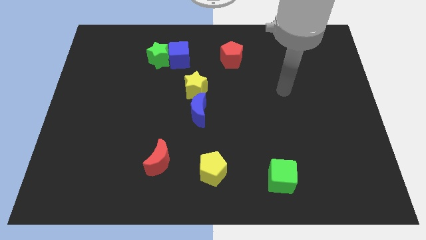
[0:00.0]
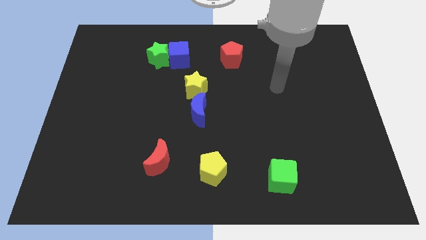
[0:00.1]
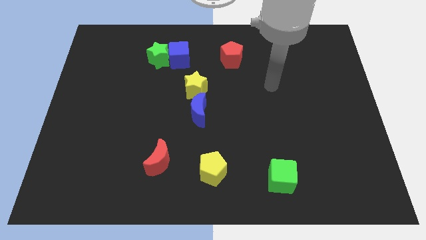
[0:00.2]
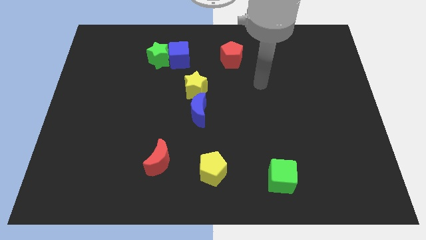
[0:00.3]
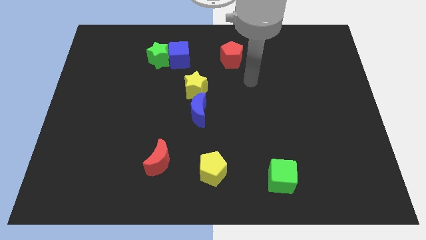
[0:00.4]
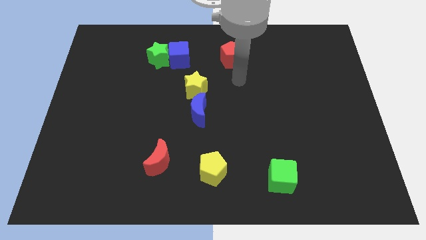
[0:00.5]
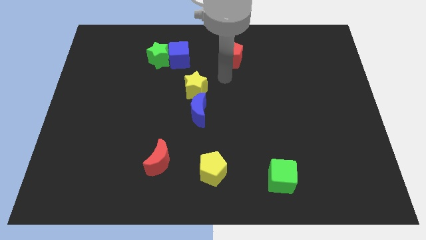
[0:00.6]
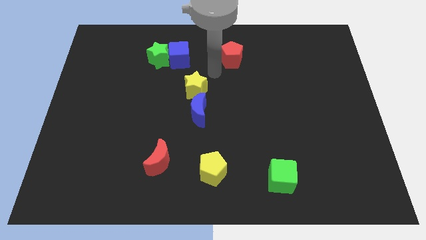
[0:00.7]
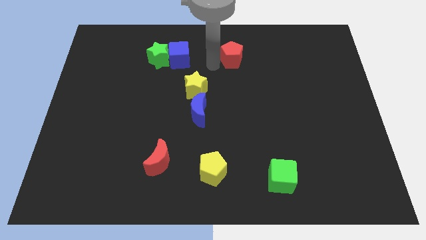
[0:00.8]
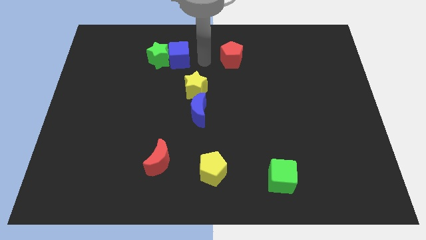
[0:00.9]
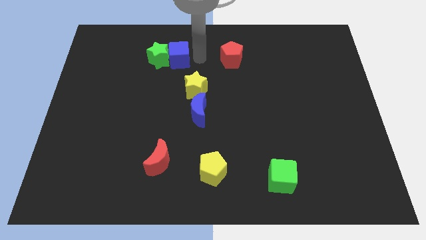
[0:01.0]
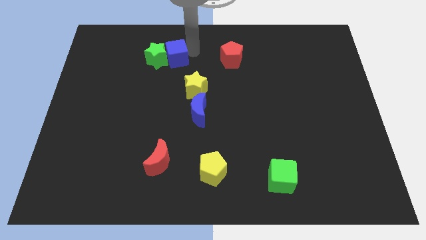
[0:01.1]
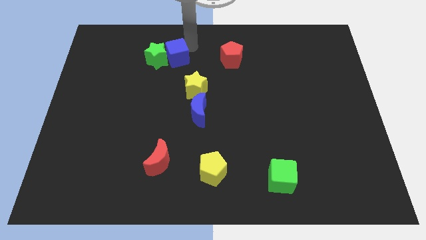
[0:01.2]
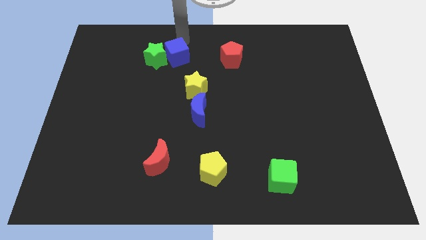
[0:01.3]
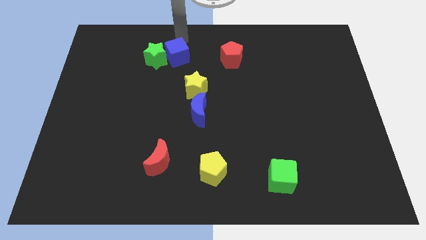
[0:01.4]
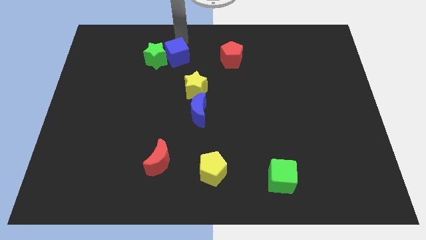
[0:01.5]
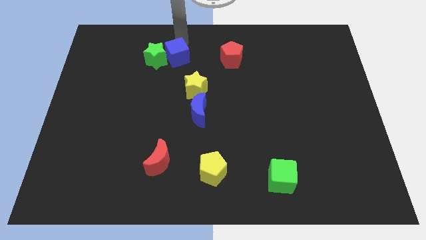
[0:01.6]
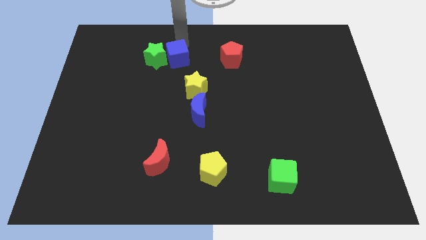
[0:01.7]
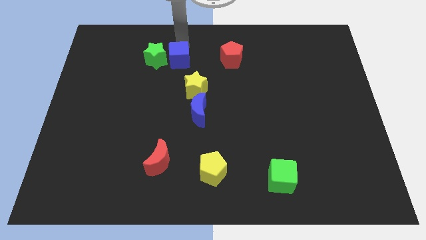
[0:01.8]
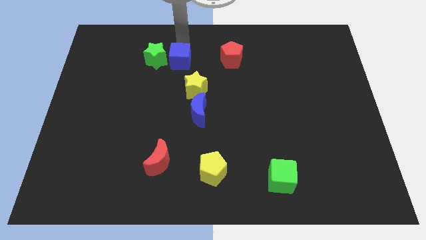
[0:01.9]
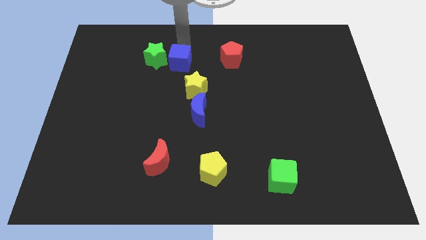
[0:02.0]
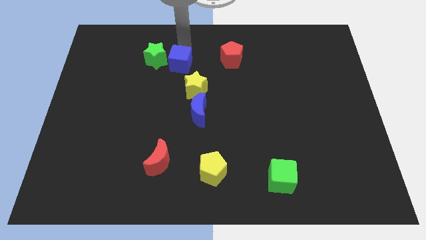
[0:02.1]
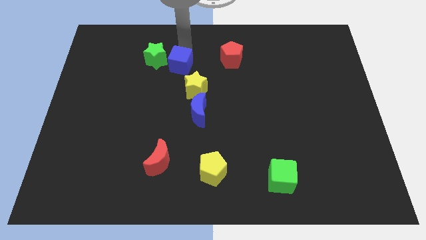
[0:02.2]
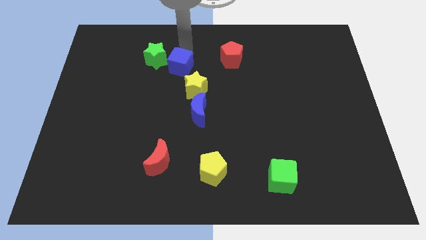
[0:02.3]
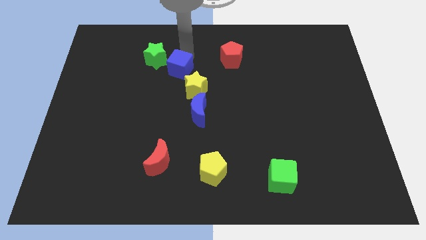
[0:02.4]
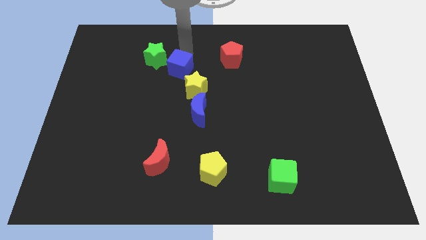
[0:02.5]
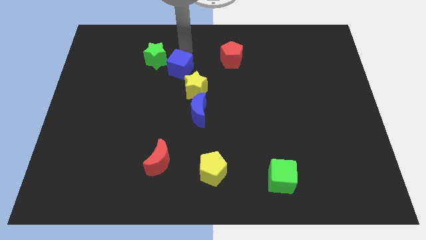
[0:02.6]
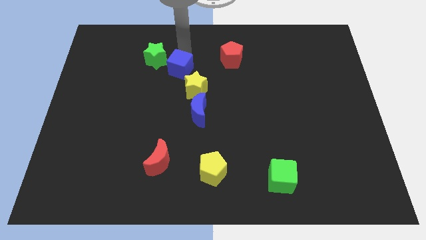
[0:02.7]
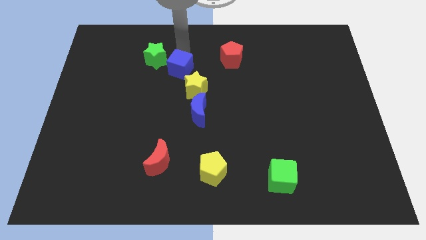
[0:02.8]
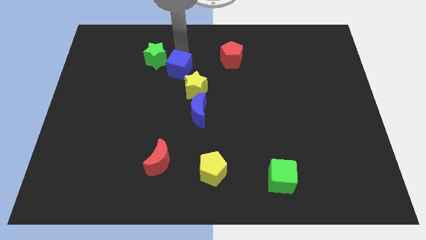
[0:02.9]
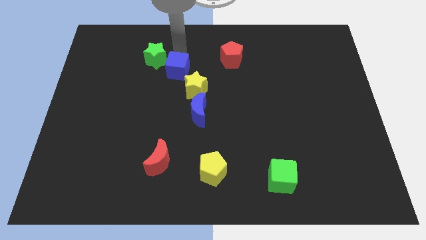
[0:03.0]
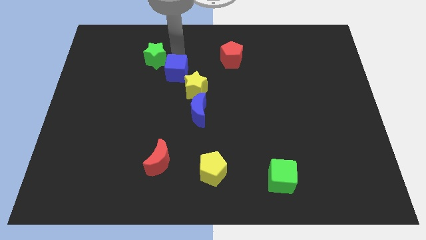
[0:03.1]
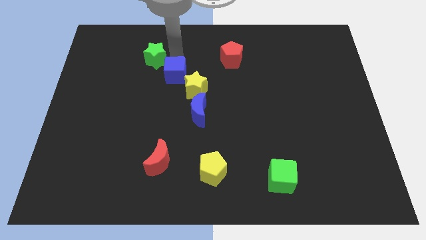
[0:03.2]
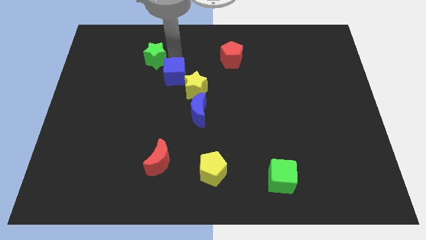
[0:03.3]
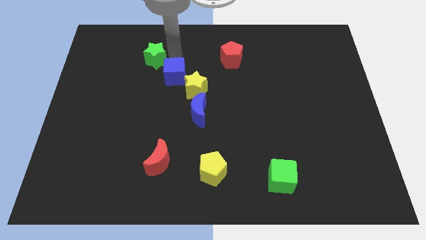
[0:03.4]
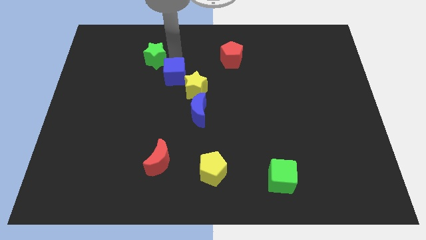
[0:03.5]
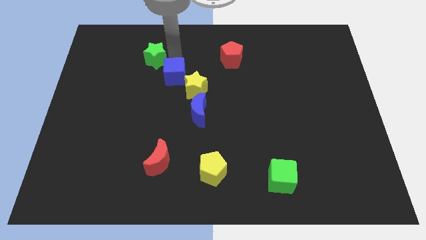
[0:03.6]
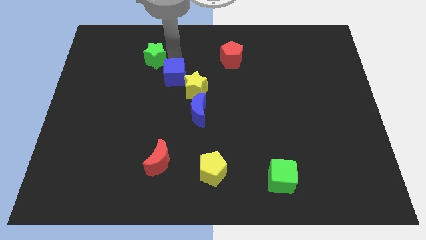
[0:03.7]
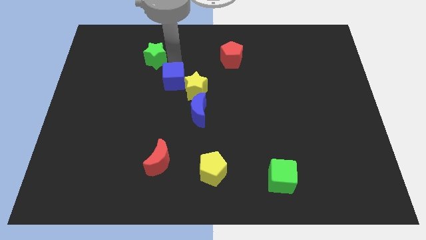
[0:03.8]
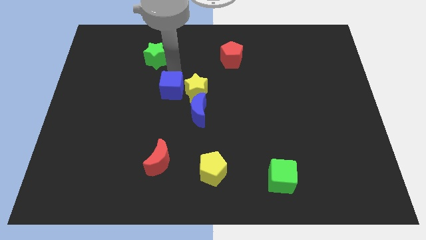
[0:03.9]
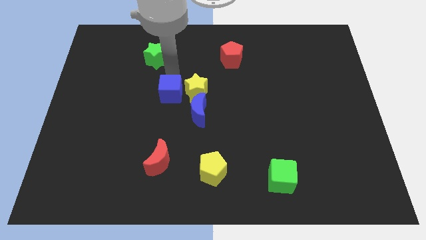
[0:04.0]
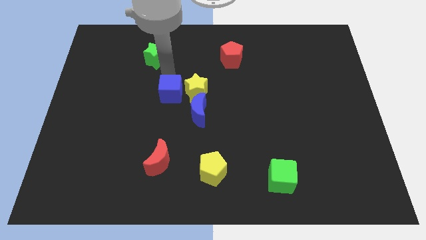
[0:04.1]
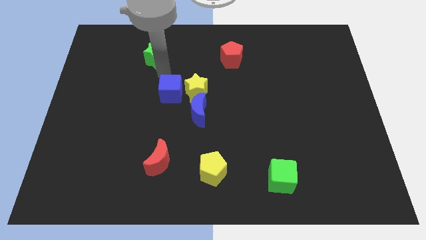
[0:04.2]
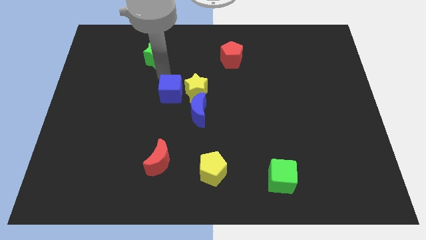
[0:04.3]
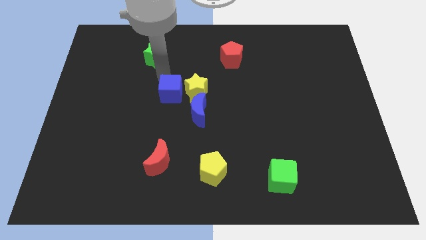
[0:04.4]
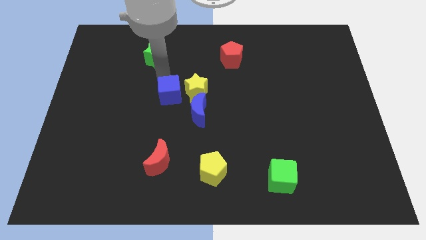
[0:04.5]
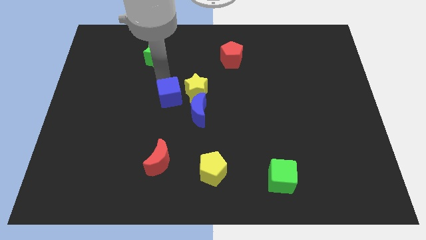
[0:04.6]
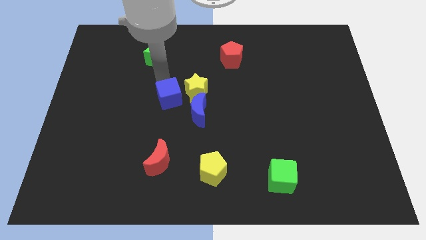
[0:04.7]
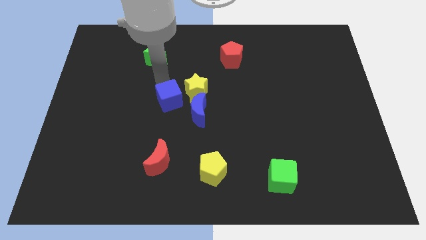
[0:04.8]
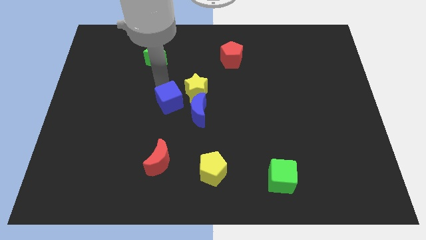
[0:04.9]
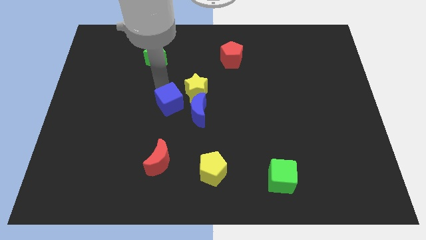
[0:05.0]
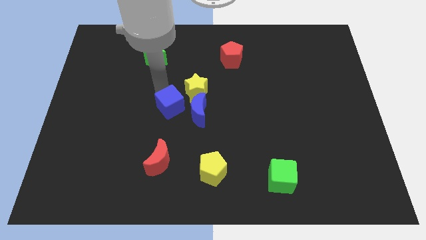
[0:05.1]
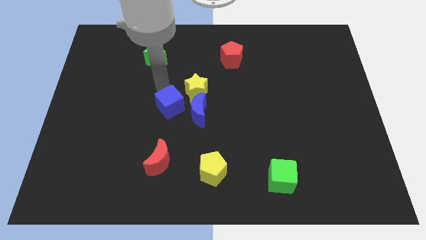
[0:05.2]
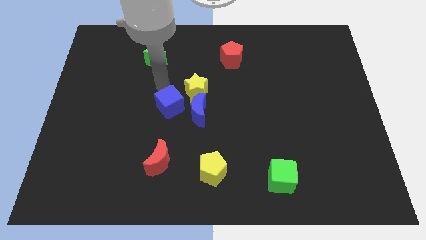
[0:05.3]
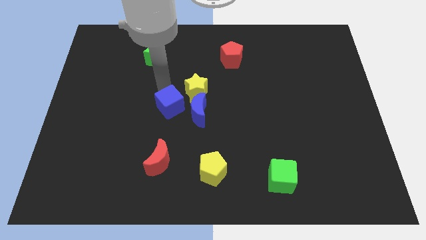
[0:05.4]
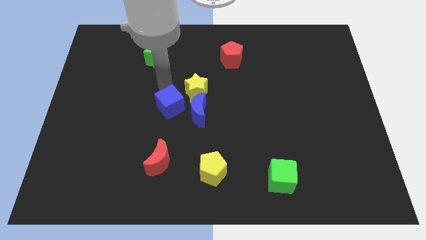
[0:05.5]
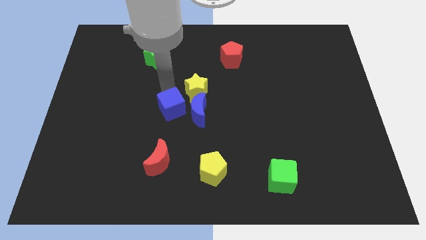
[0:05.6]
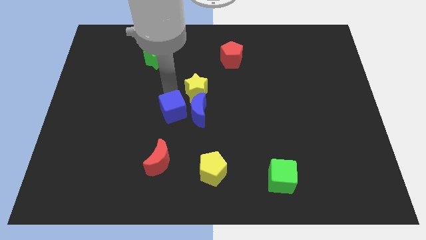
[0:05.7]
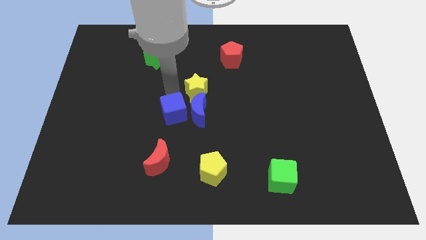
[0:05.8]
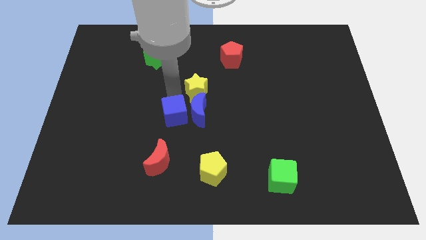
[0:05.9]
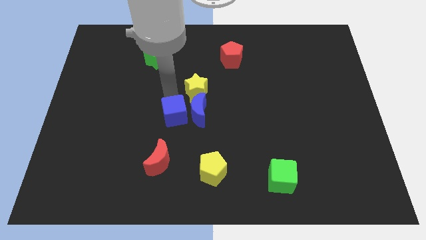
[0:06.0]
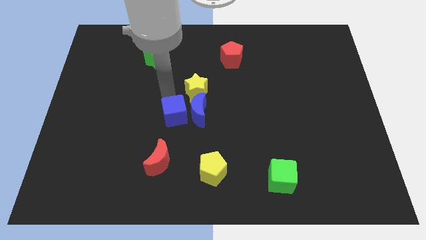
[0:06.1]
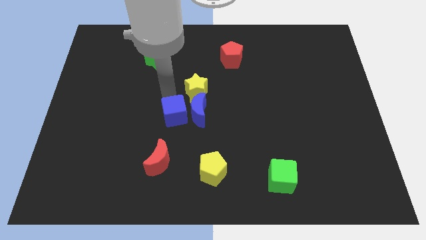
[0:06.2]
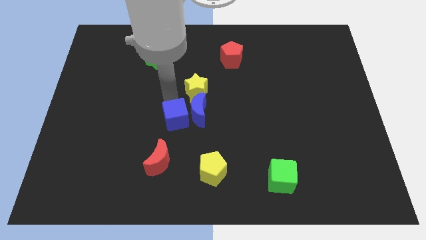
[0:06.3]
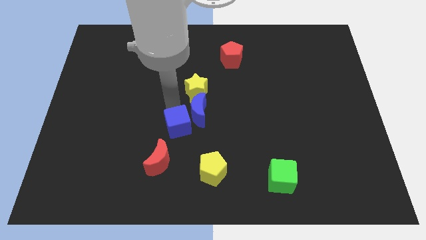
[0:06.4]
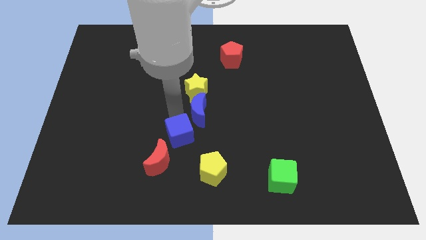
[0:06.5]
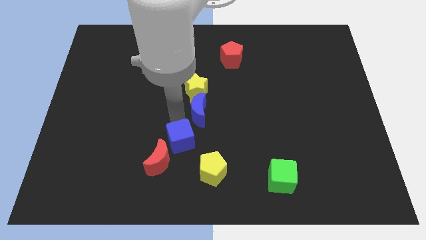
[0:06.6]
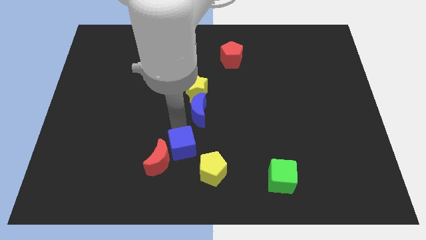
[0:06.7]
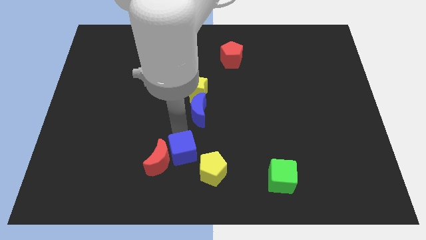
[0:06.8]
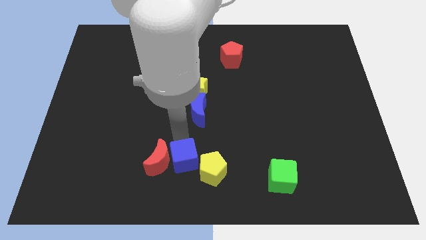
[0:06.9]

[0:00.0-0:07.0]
slide the blue cube to the bottom side
